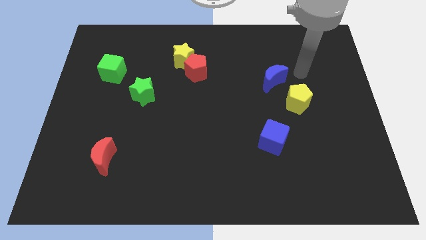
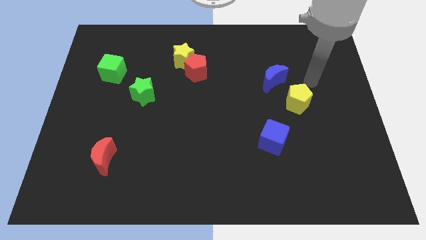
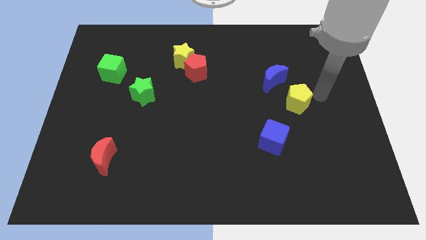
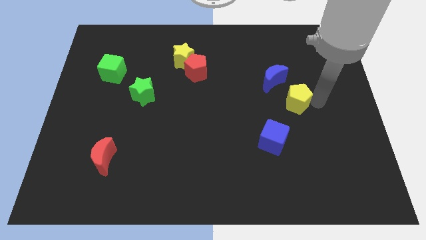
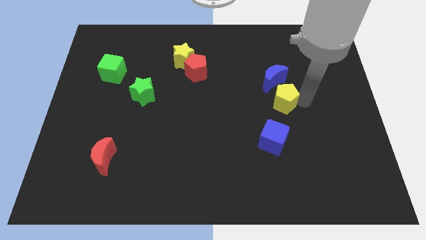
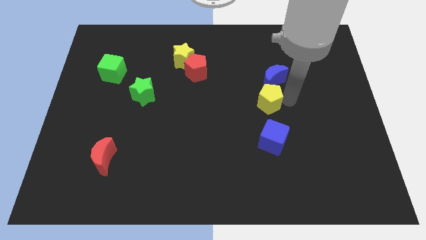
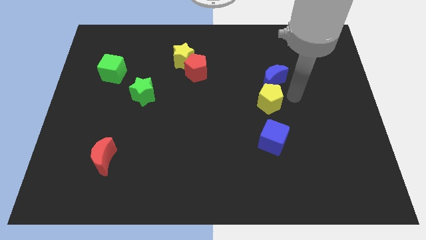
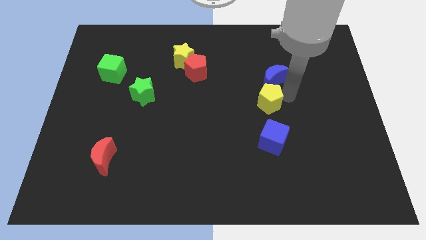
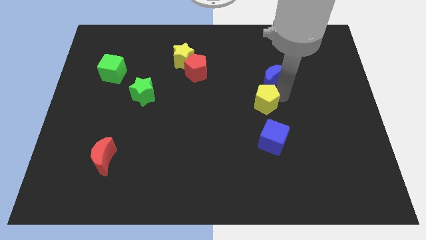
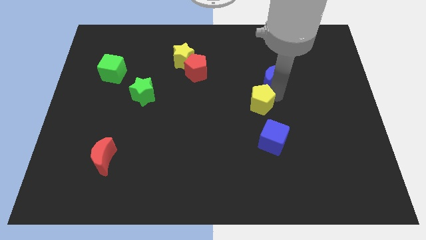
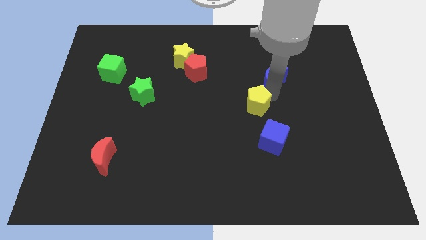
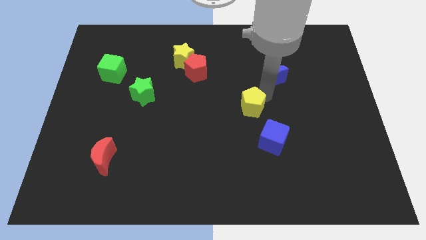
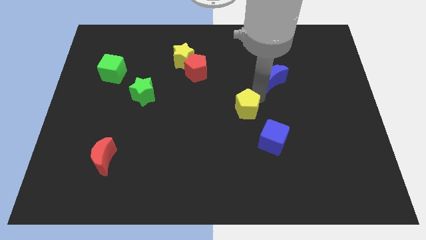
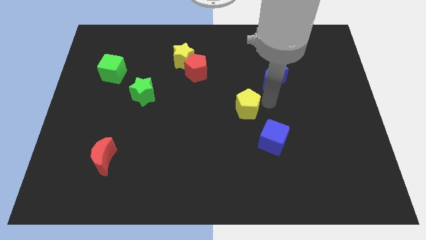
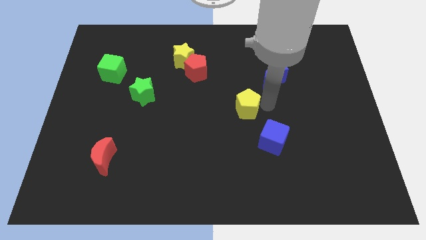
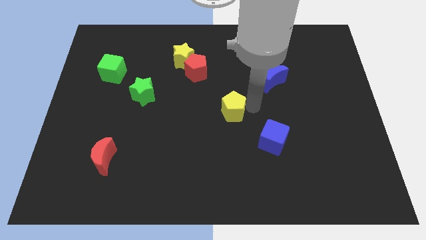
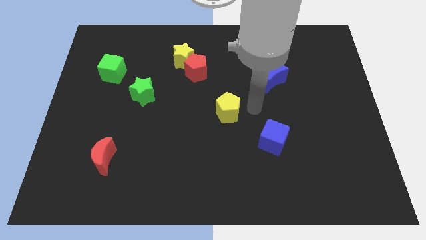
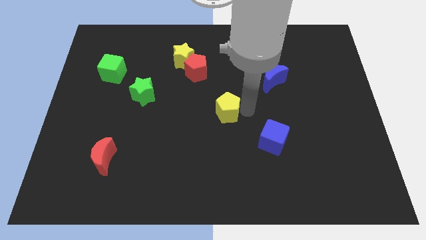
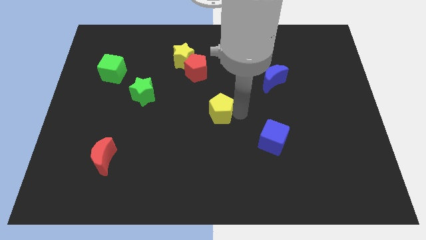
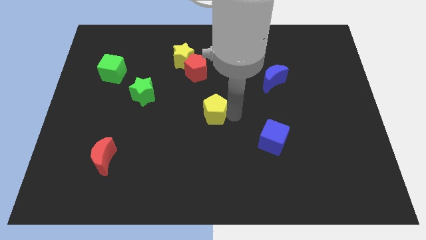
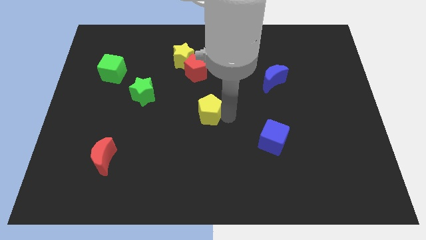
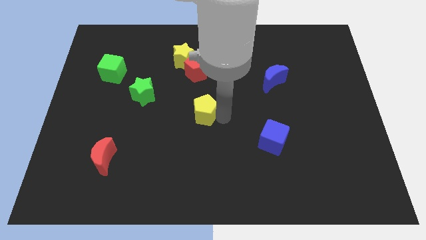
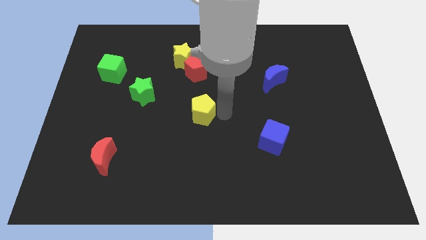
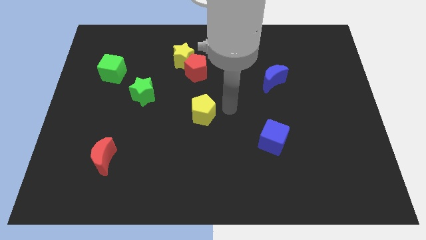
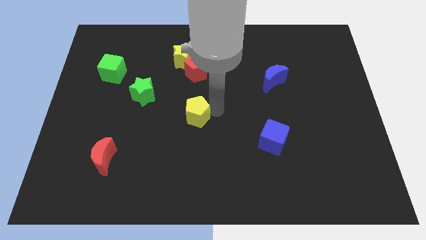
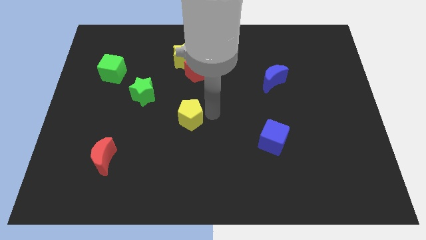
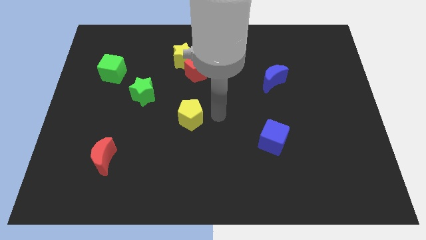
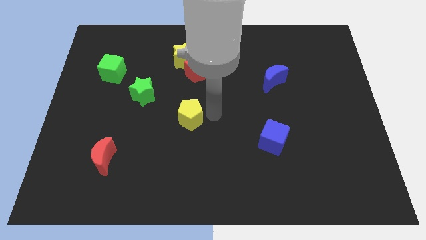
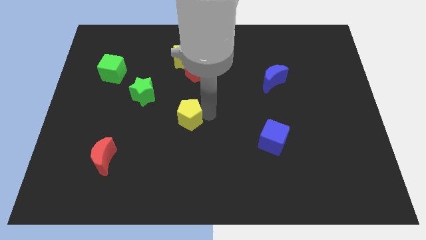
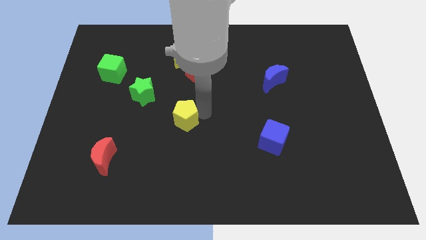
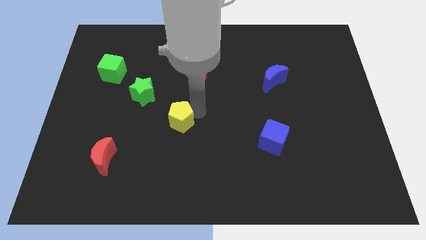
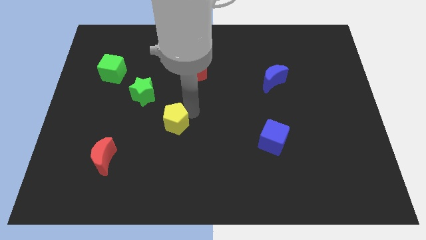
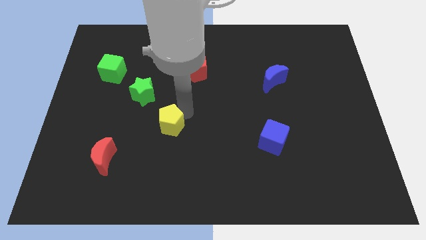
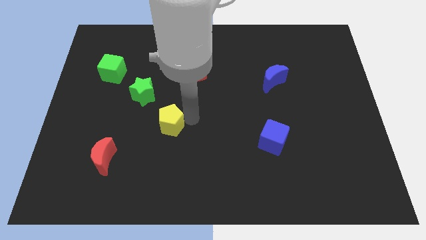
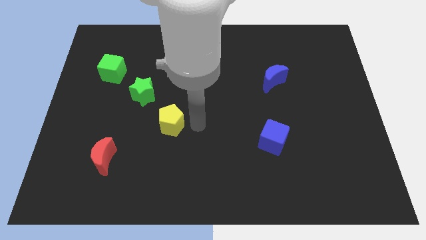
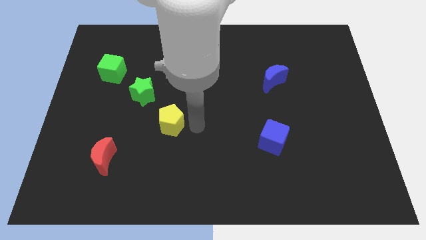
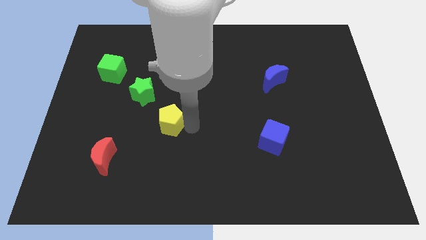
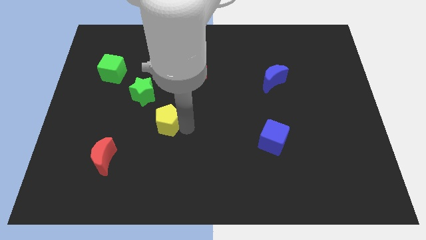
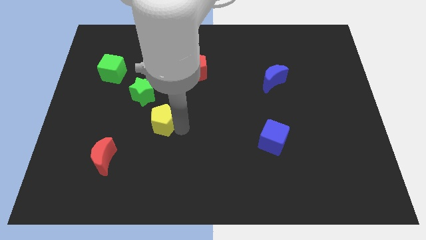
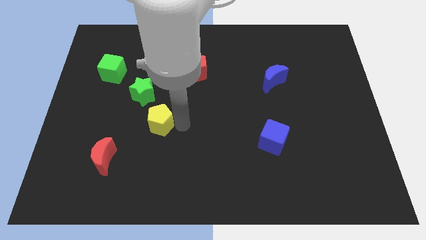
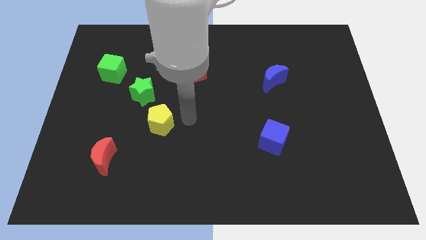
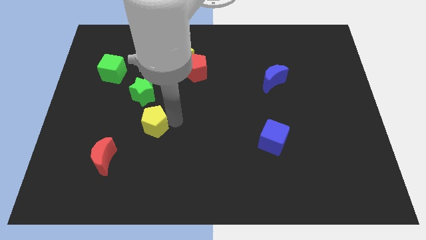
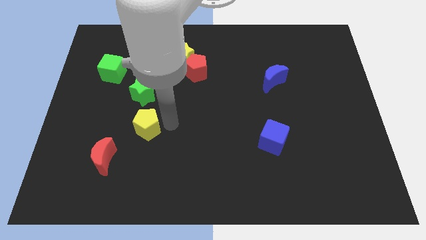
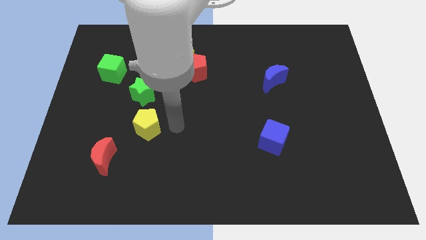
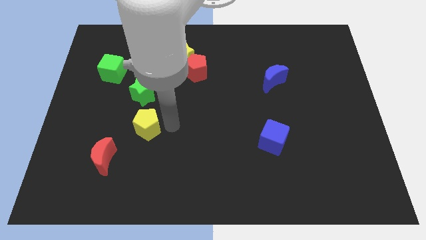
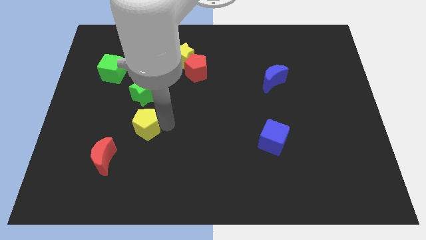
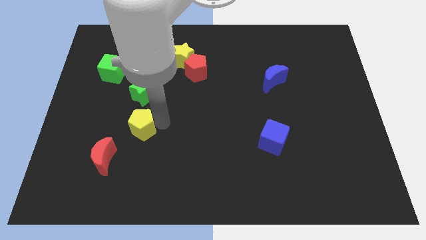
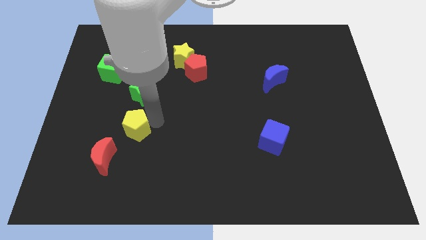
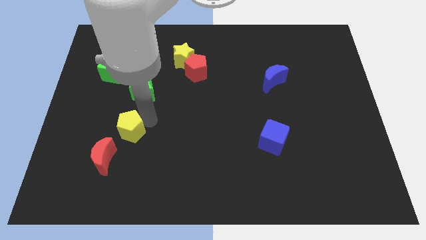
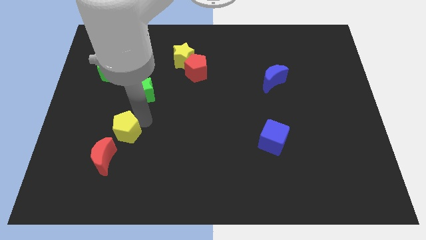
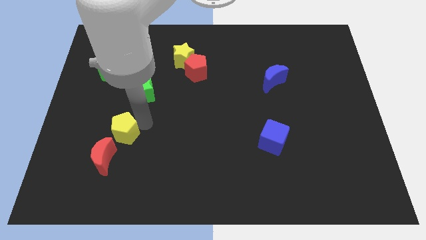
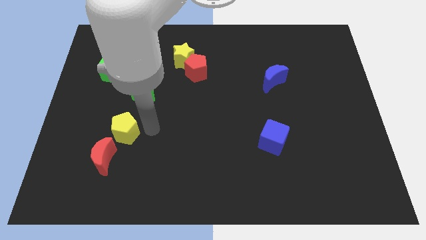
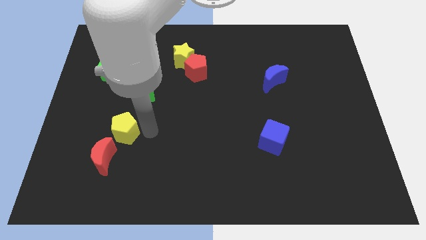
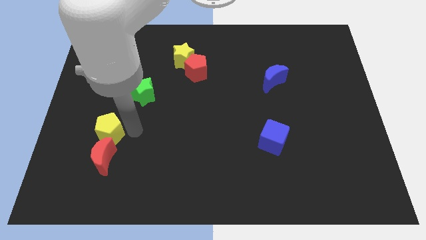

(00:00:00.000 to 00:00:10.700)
move the yellow pentagon to the top left side of the red moon

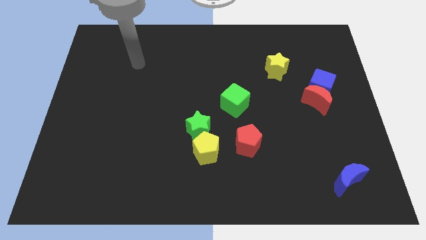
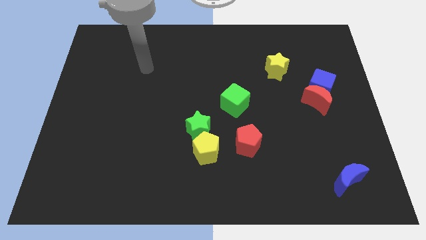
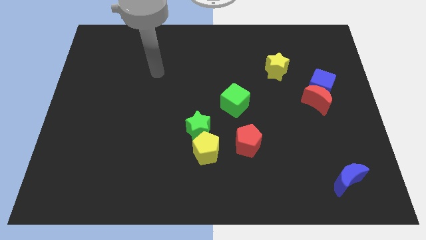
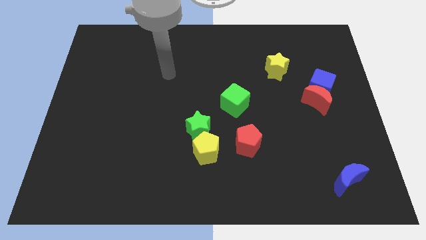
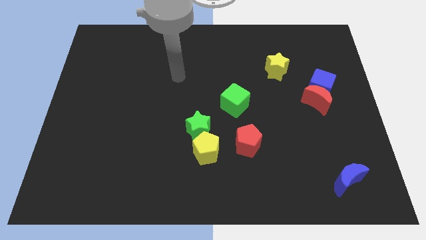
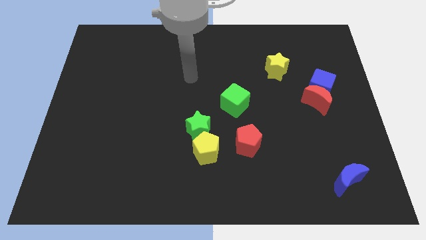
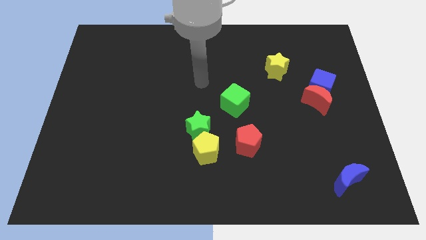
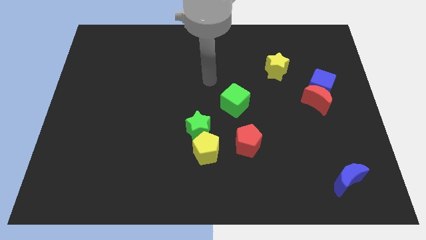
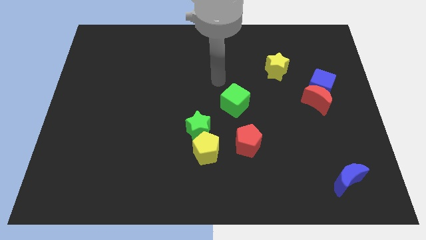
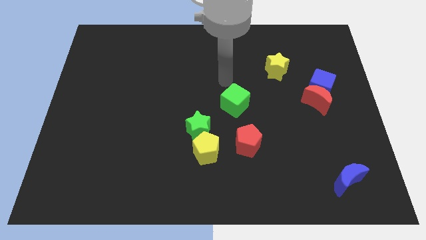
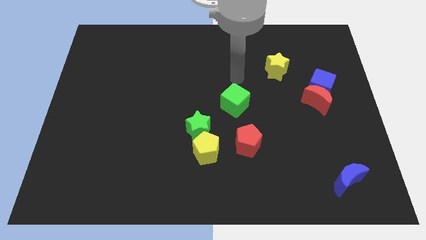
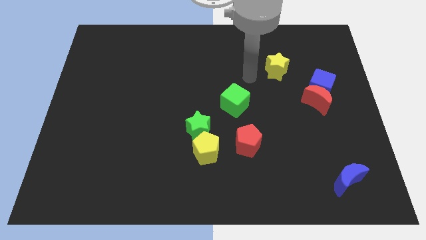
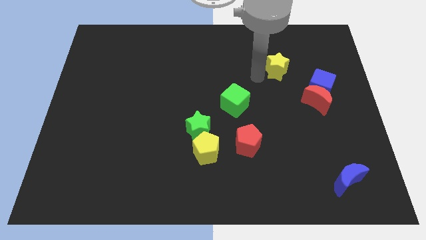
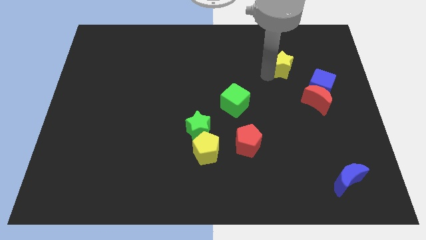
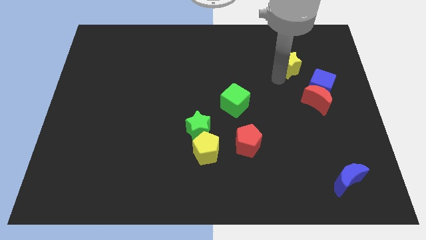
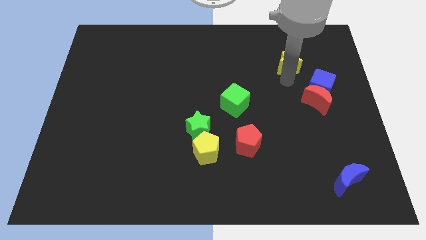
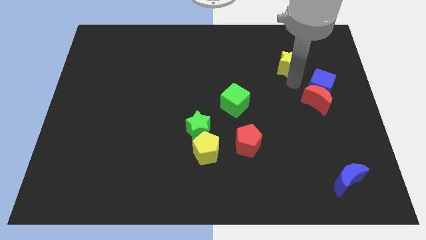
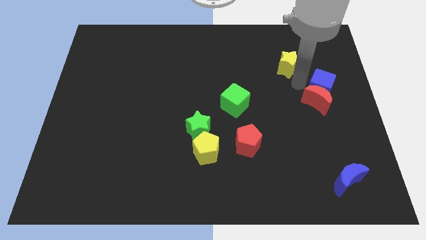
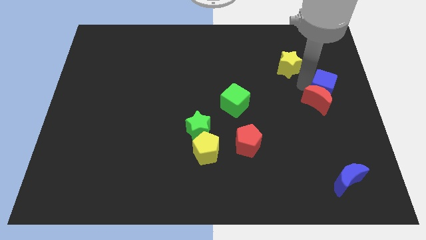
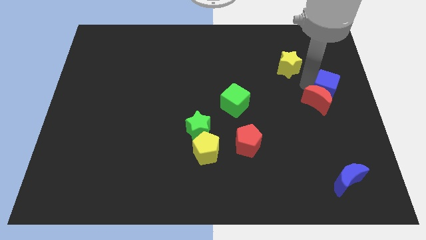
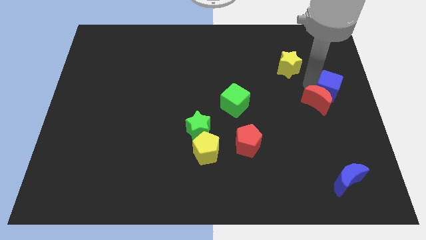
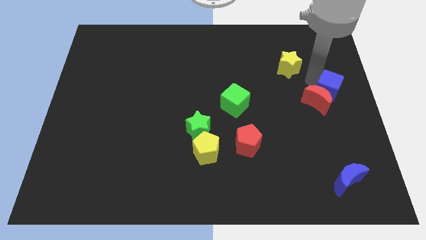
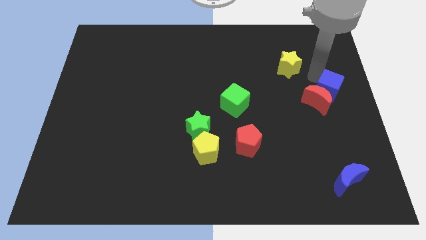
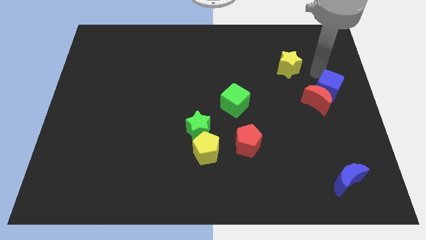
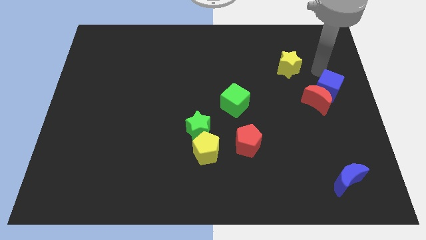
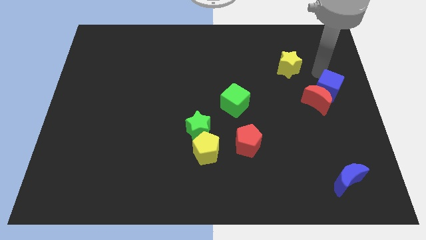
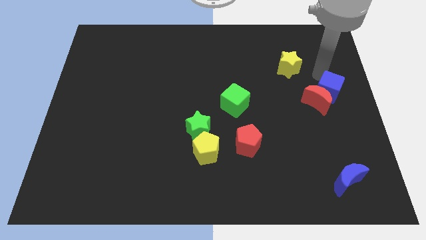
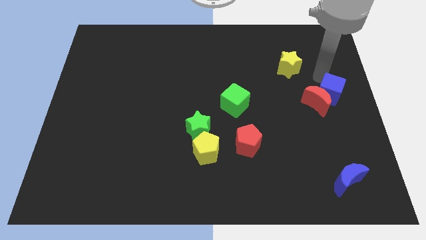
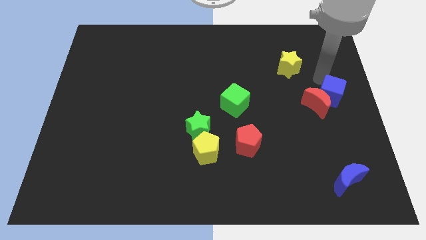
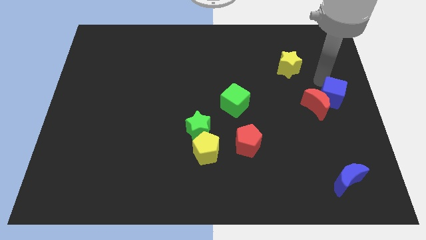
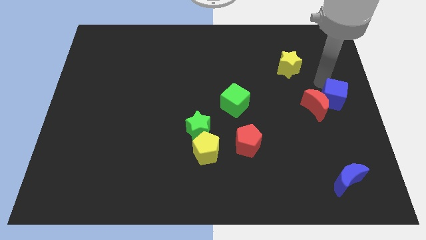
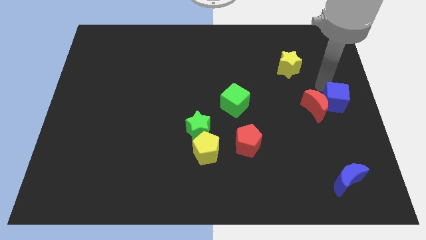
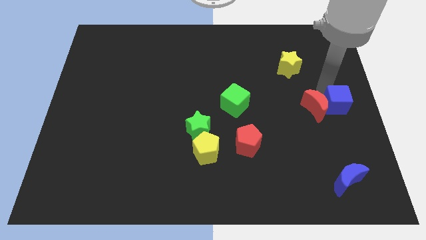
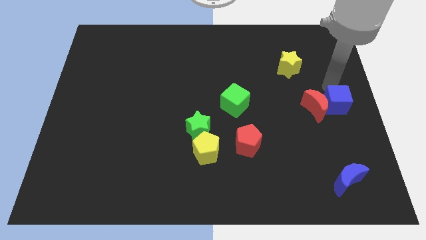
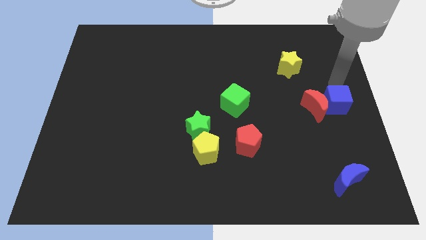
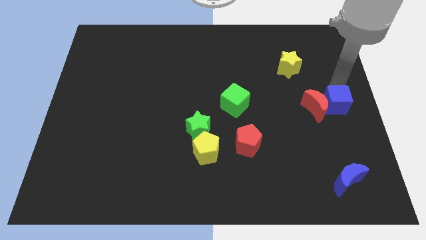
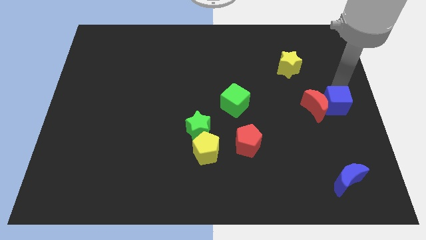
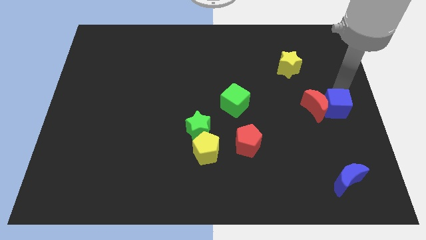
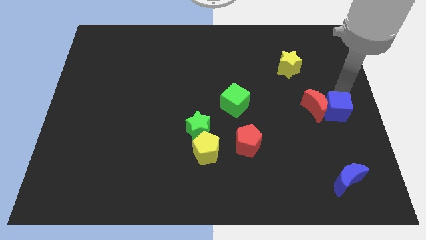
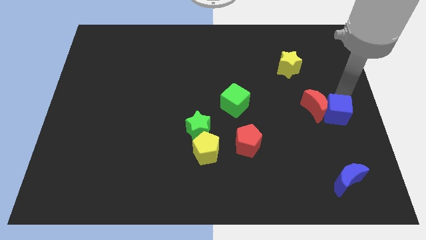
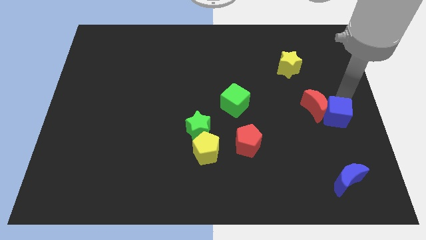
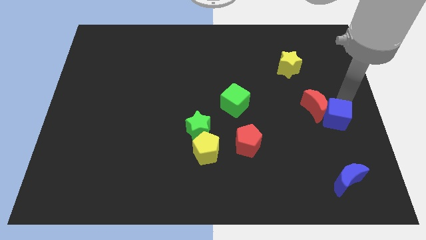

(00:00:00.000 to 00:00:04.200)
push the blue cube to the top side of the blue moon
